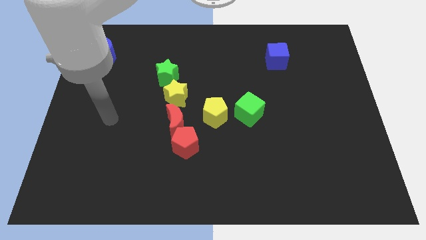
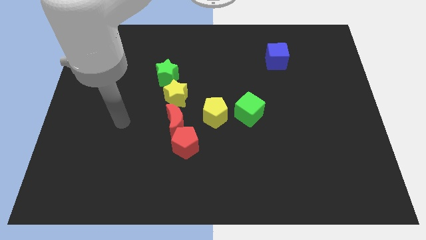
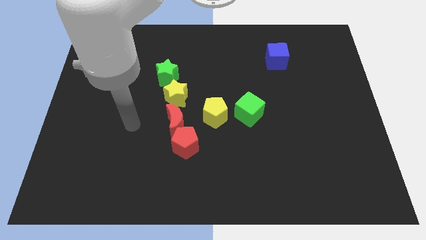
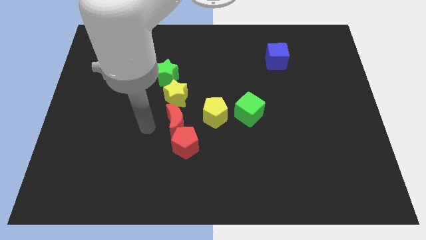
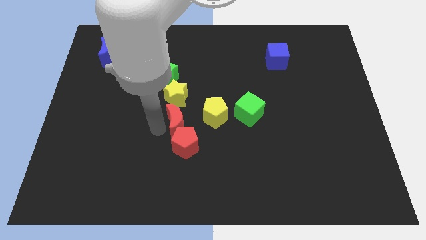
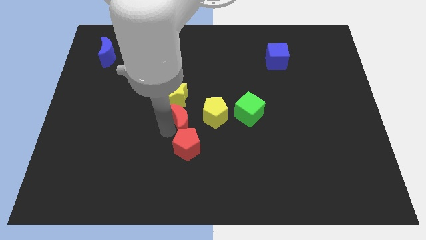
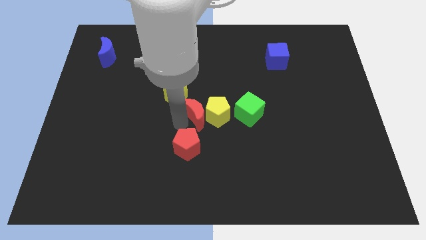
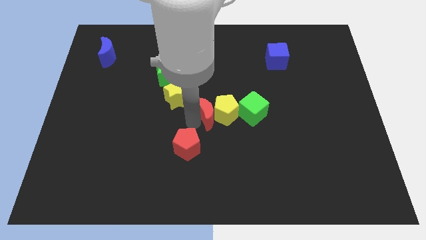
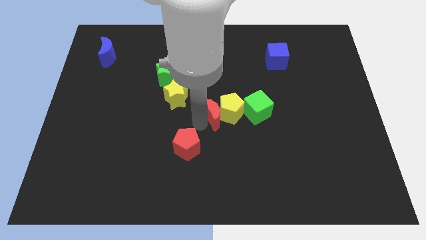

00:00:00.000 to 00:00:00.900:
move the red pentagon away from the red moon

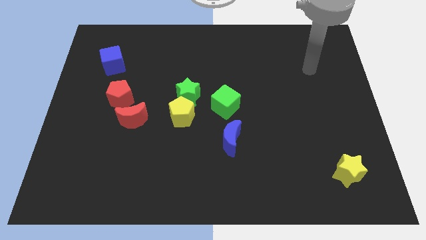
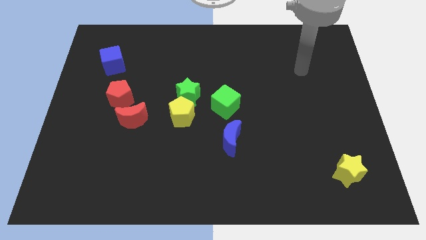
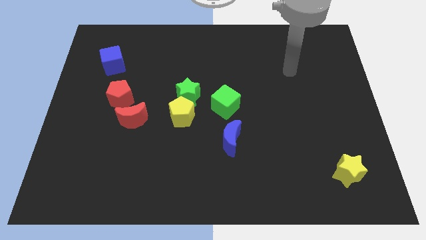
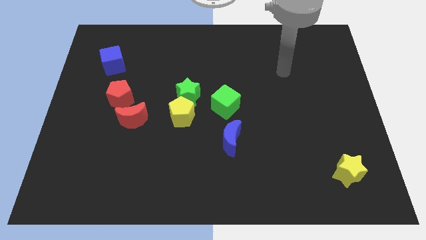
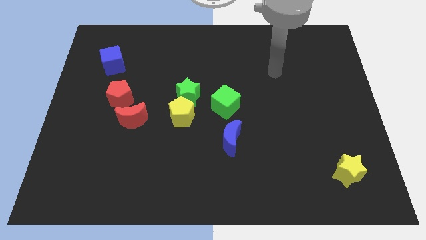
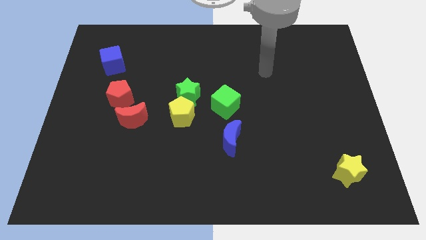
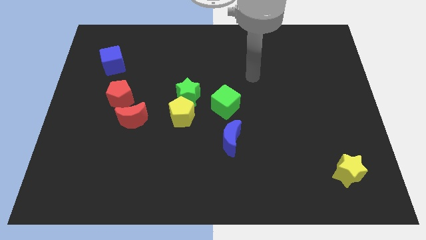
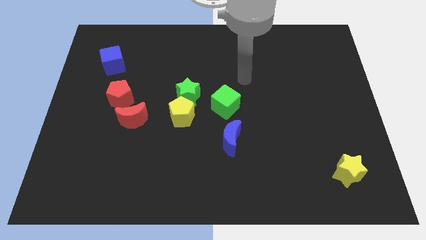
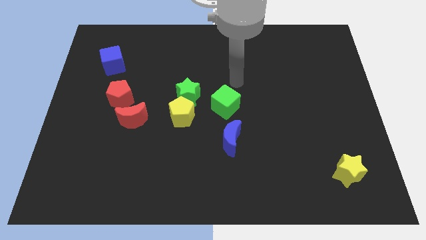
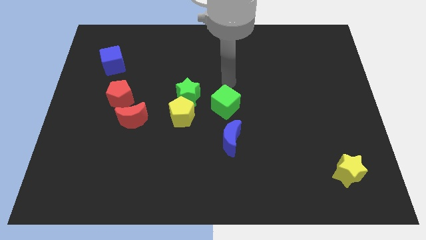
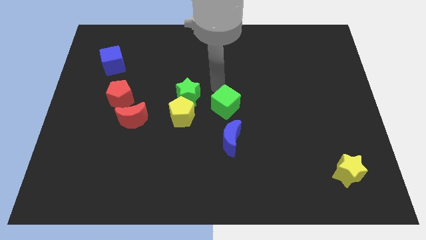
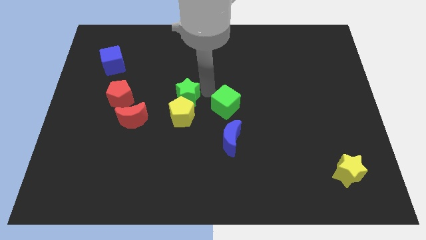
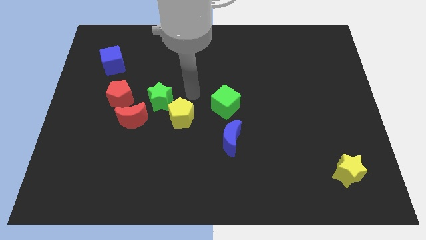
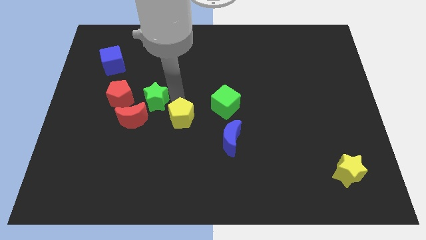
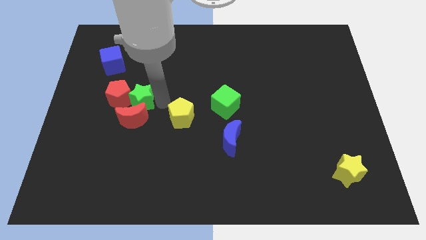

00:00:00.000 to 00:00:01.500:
separate the yellow pentagon from the green star

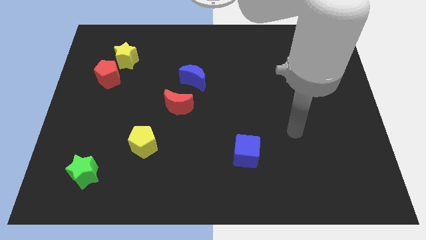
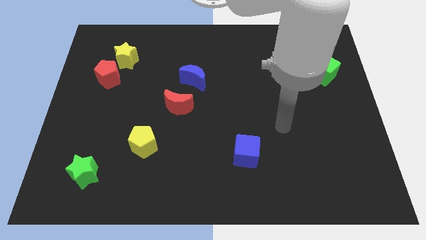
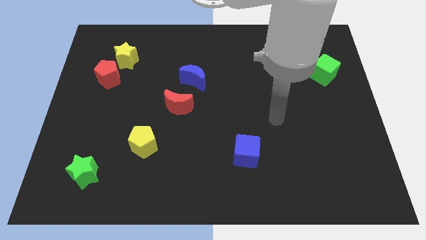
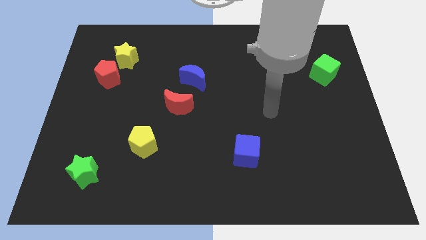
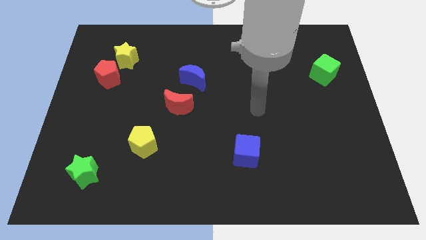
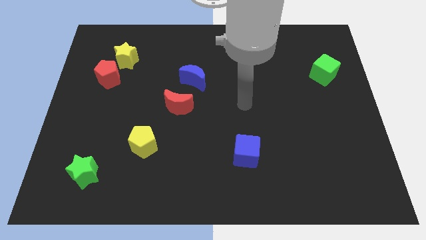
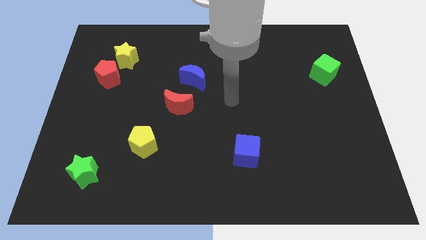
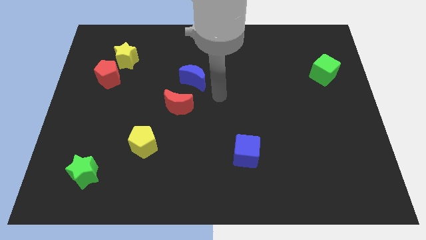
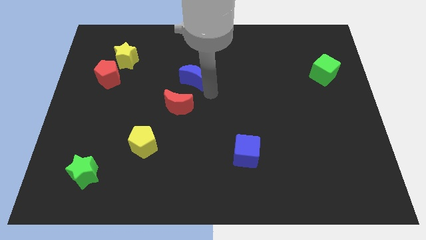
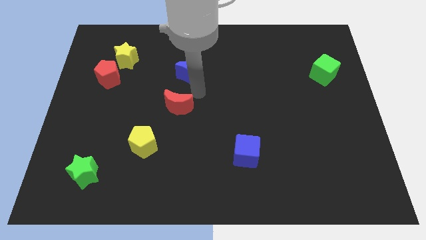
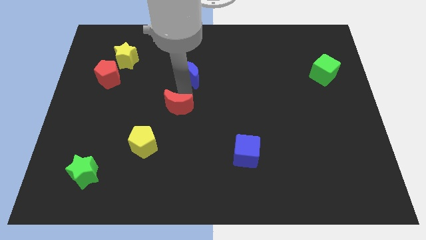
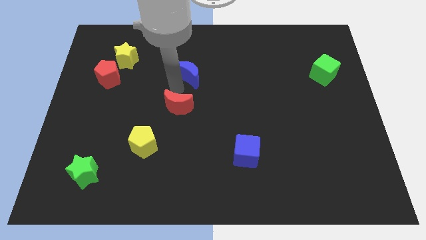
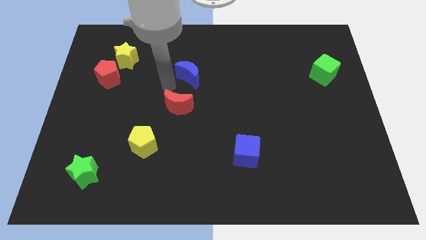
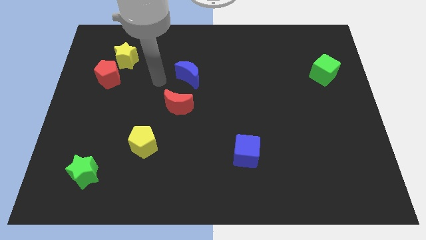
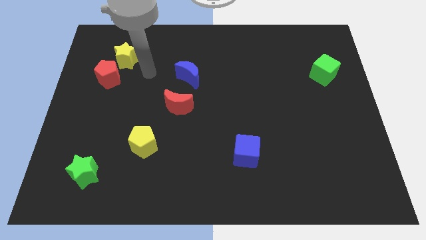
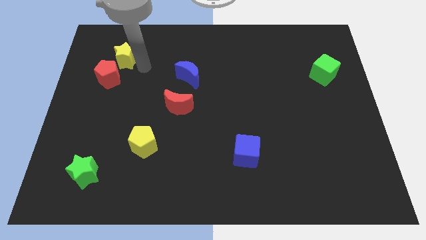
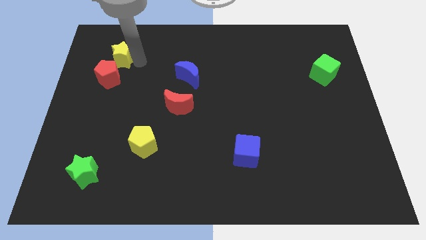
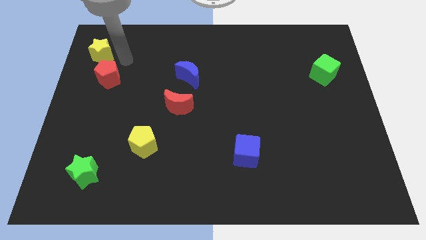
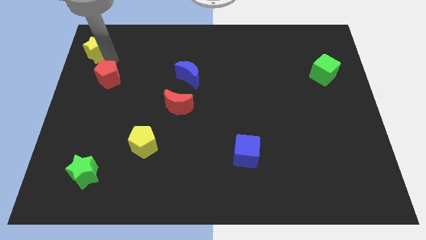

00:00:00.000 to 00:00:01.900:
move the red pentagon away from the yellow star

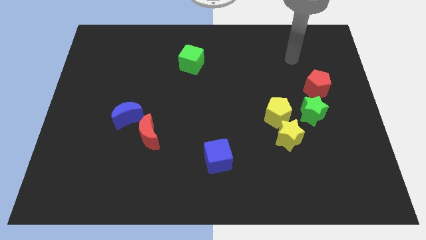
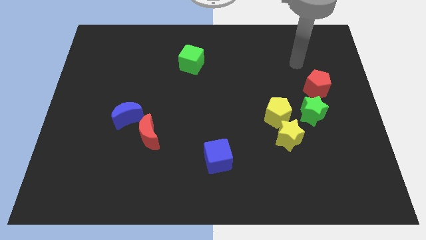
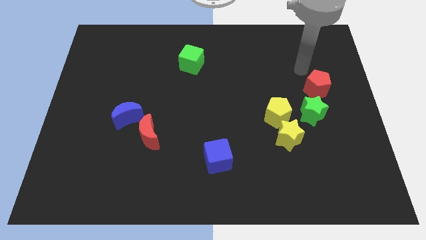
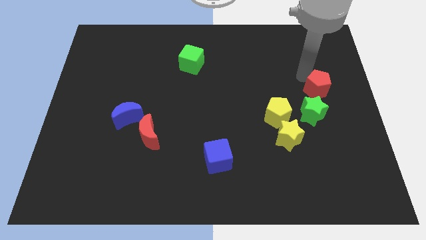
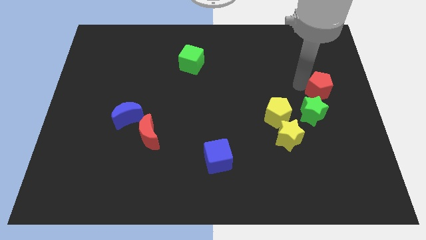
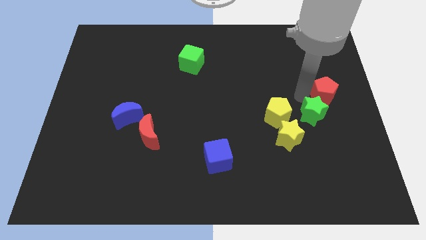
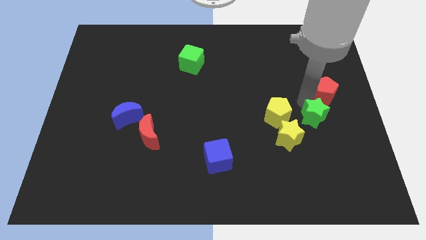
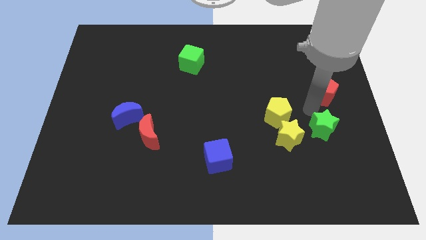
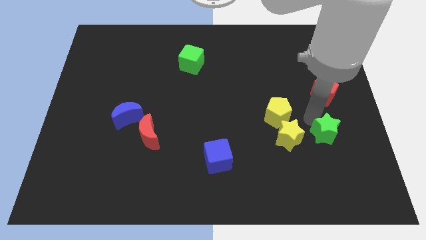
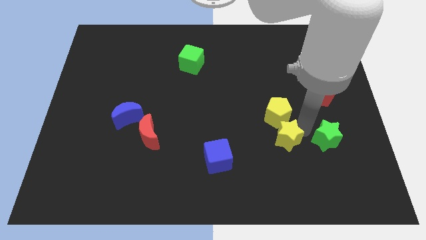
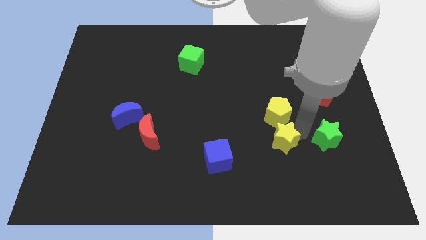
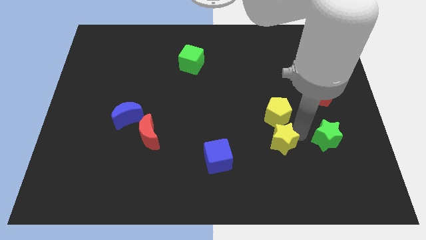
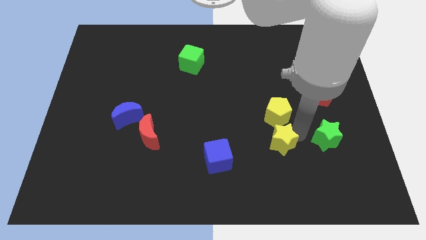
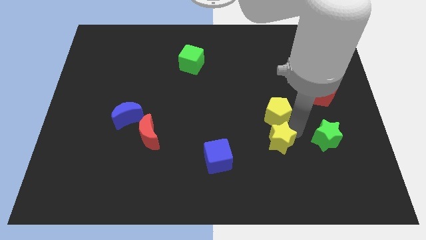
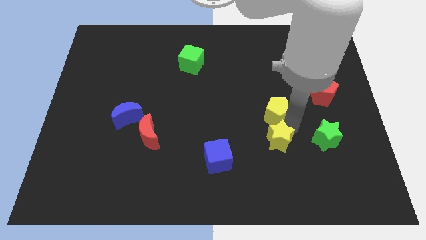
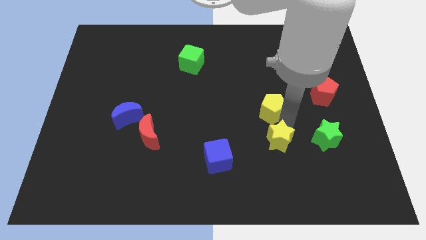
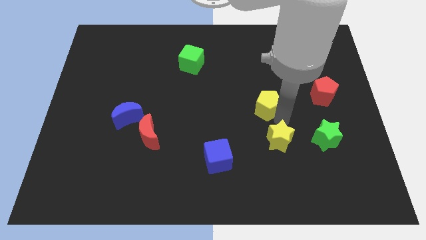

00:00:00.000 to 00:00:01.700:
pull the yellow pentagon apart from the yellow star and green star

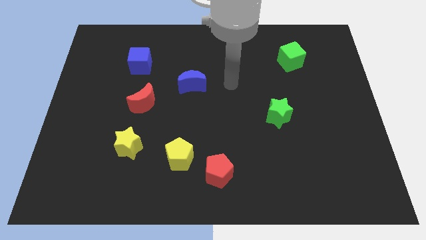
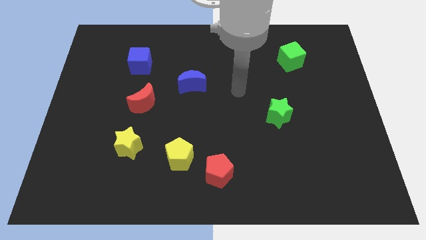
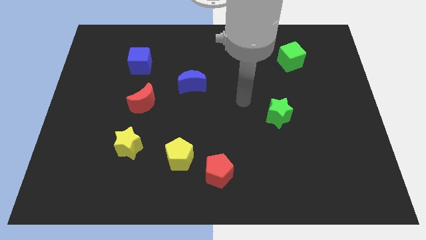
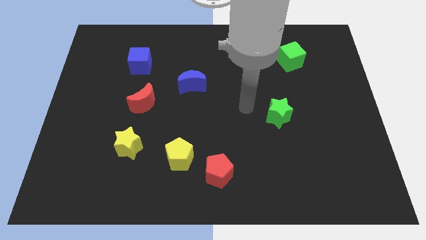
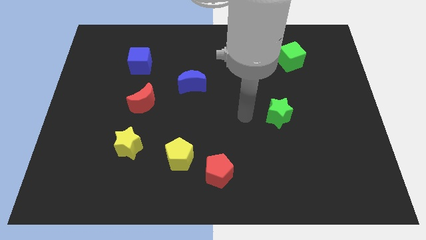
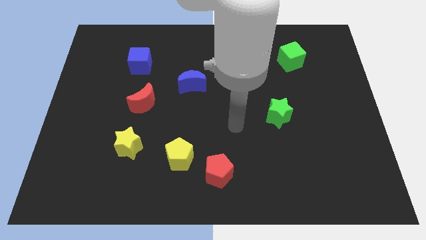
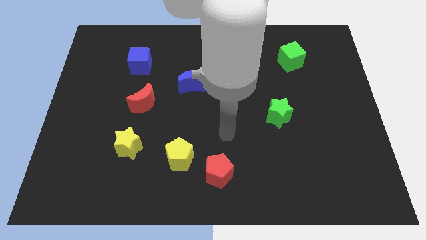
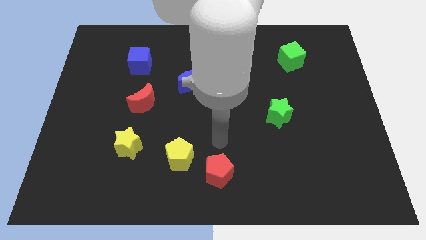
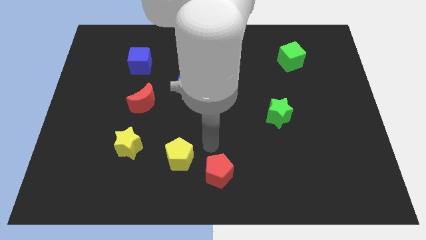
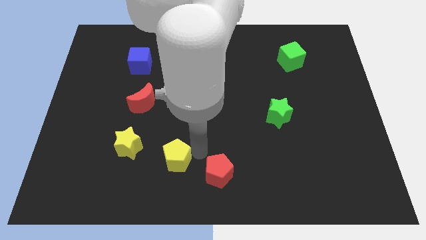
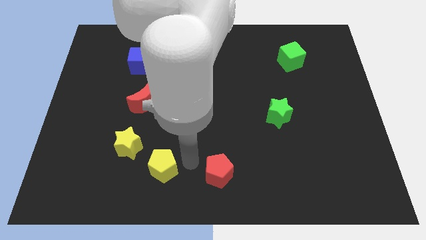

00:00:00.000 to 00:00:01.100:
pull the red pentagon apart from the yellow pentagon

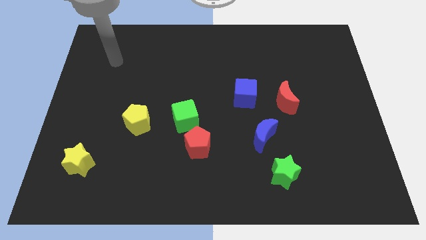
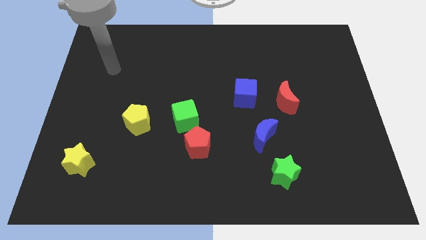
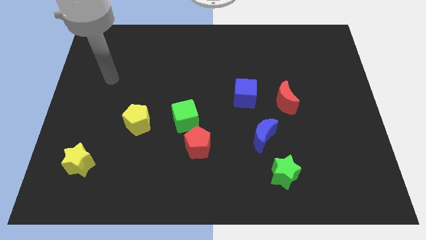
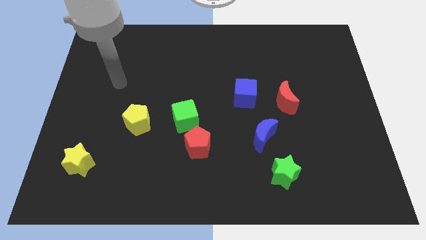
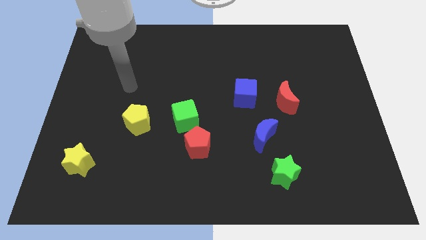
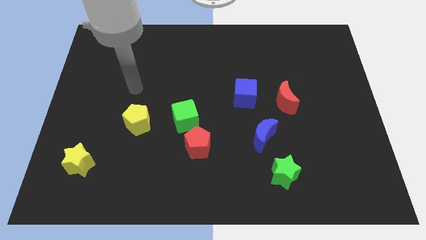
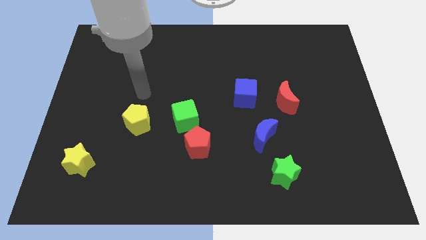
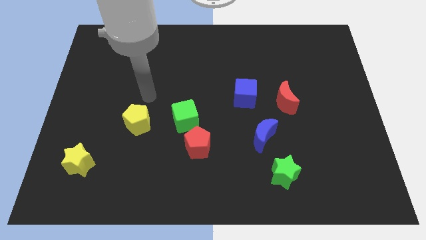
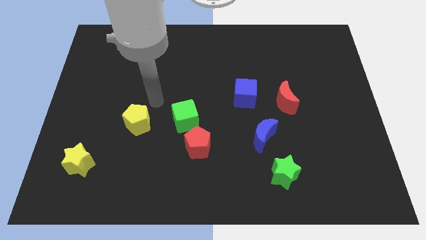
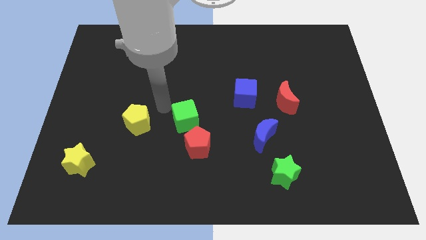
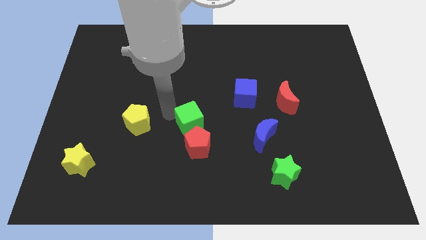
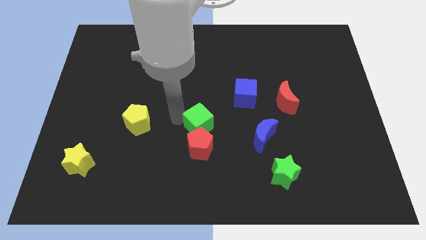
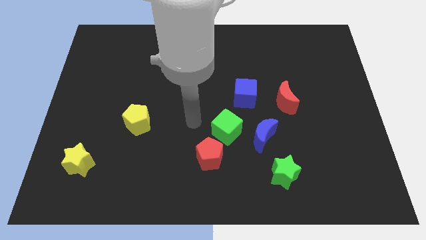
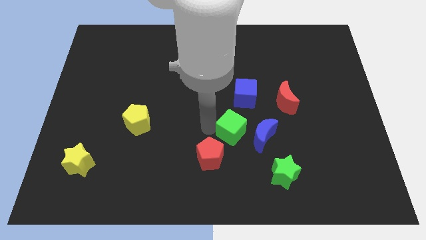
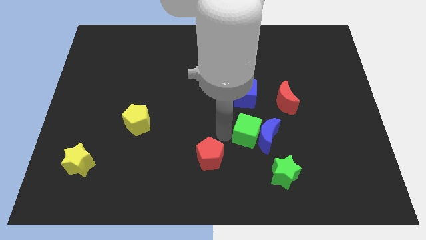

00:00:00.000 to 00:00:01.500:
pull the red pentagon apart from the green cube

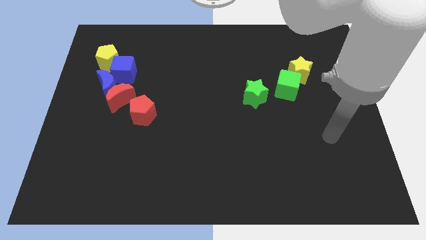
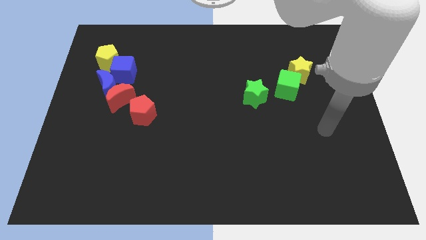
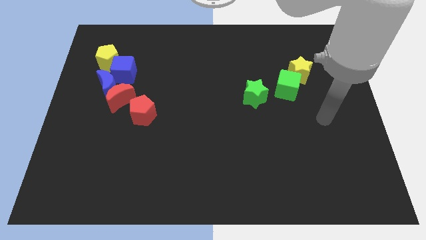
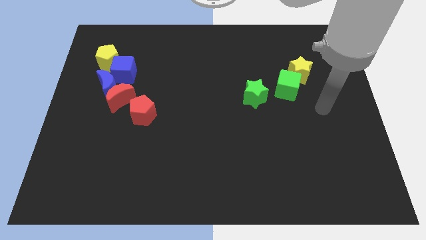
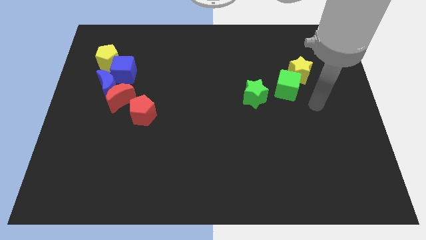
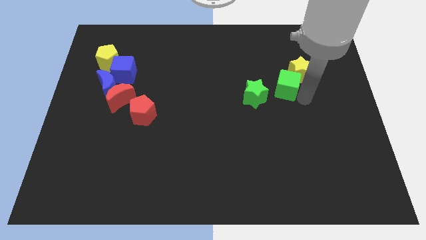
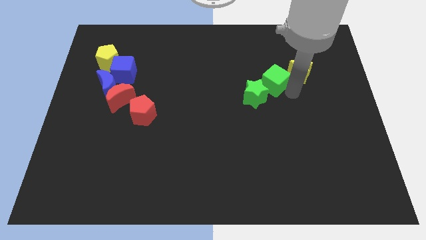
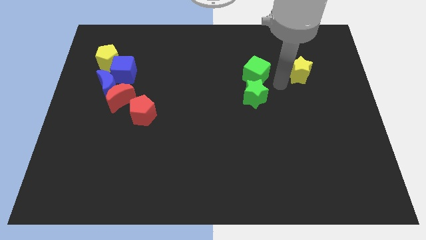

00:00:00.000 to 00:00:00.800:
pull the yellow star apart from the green cube
